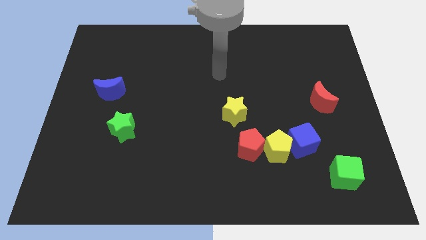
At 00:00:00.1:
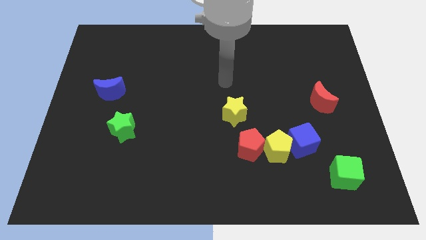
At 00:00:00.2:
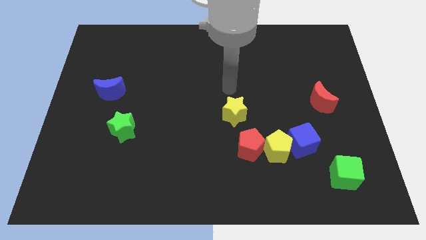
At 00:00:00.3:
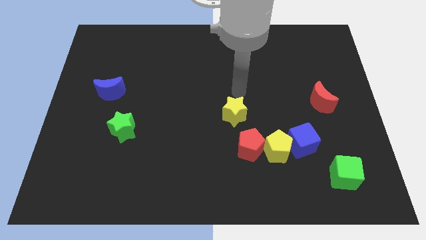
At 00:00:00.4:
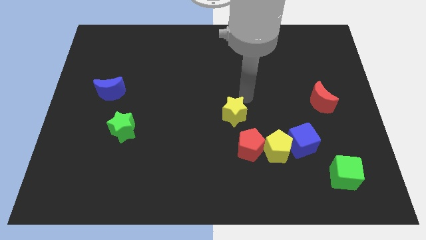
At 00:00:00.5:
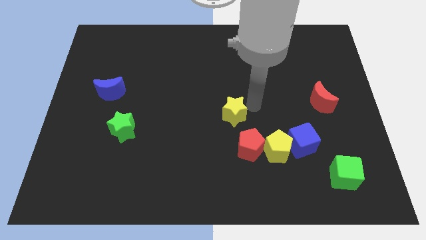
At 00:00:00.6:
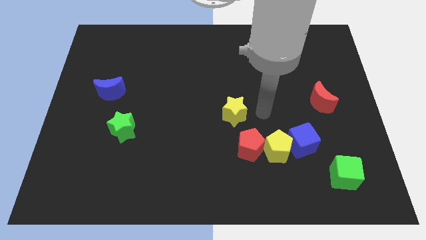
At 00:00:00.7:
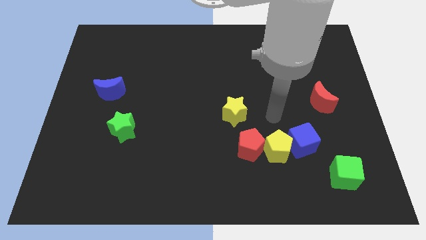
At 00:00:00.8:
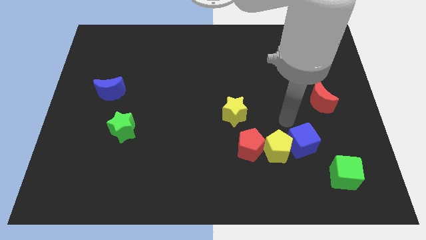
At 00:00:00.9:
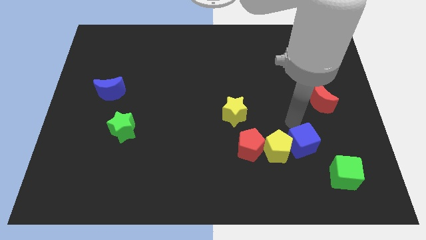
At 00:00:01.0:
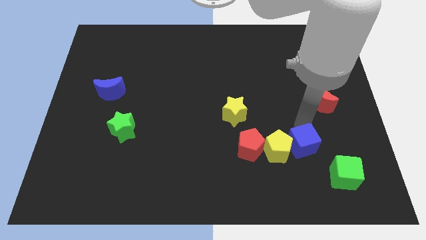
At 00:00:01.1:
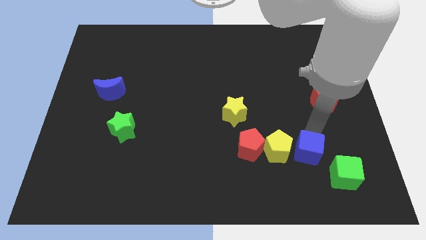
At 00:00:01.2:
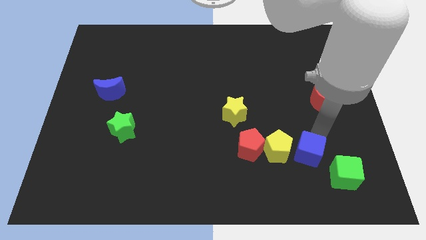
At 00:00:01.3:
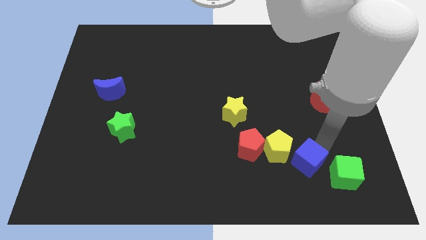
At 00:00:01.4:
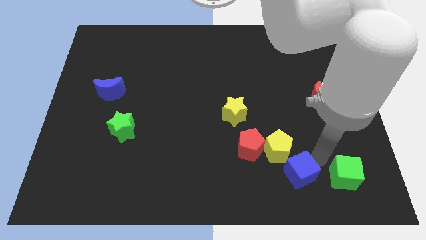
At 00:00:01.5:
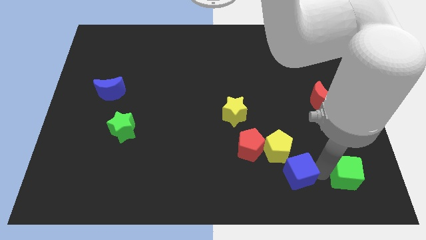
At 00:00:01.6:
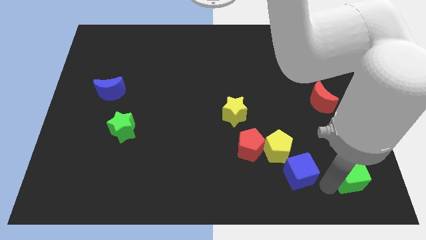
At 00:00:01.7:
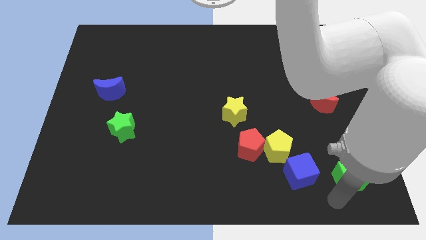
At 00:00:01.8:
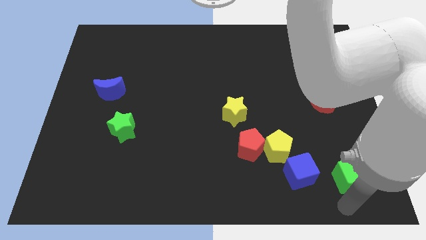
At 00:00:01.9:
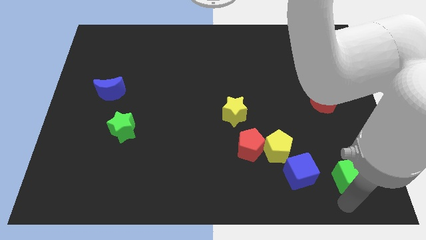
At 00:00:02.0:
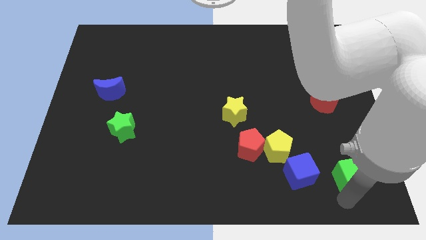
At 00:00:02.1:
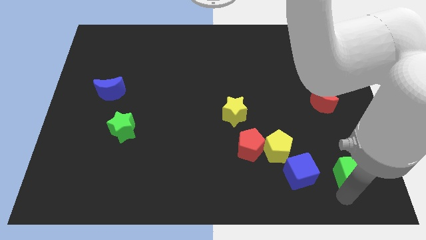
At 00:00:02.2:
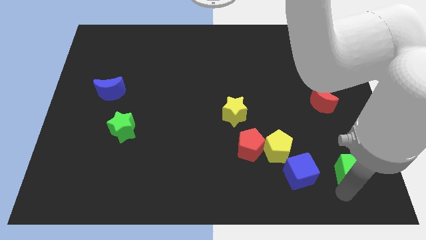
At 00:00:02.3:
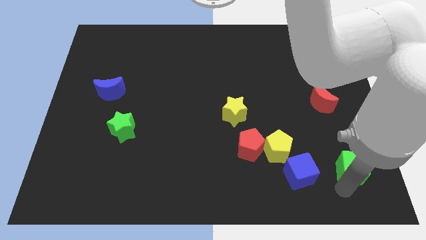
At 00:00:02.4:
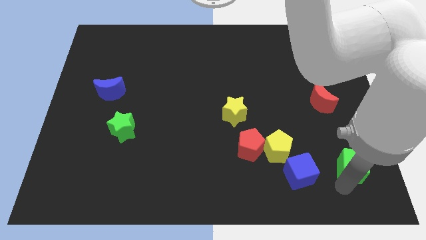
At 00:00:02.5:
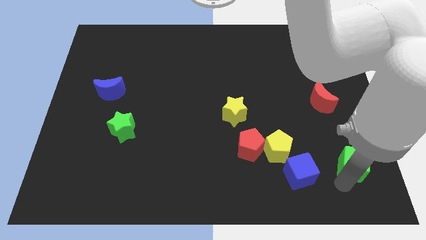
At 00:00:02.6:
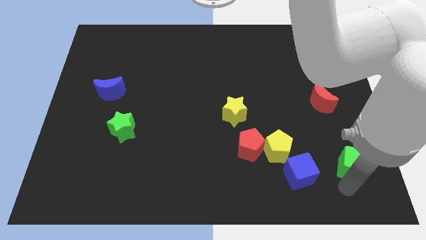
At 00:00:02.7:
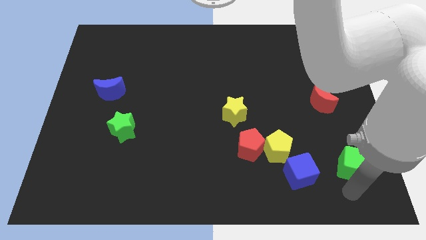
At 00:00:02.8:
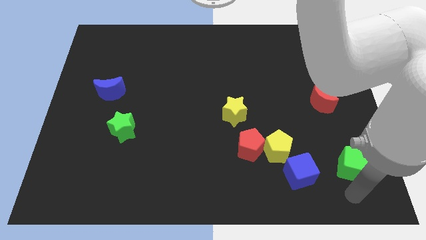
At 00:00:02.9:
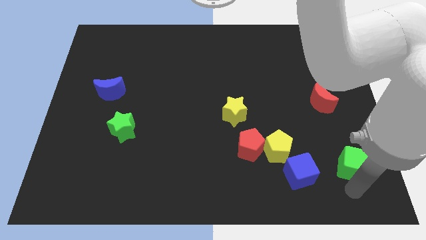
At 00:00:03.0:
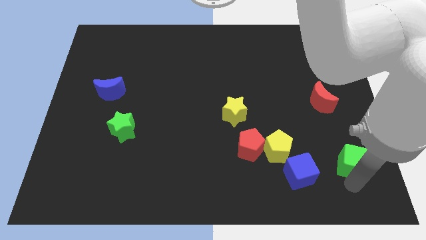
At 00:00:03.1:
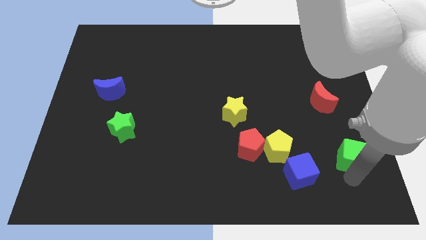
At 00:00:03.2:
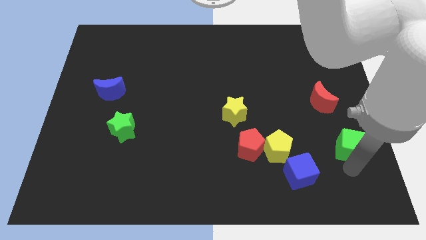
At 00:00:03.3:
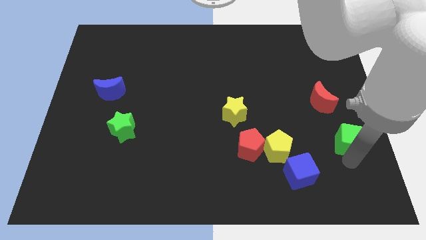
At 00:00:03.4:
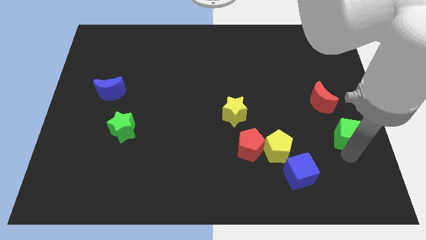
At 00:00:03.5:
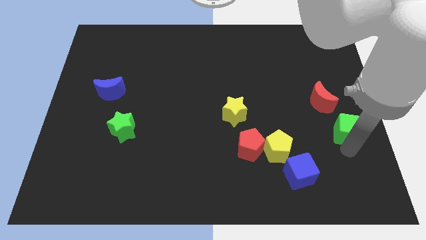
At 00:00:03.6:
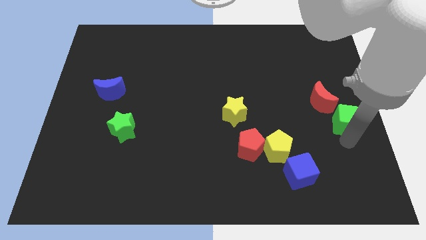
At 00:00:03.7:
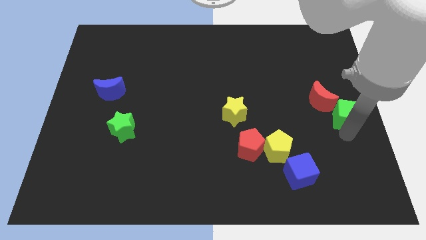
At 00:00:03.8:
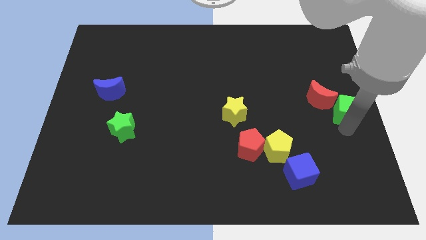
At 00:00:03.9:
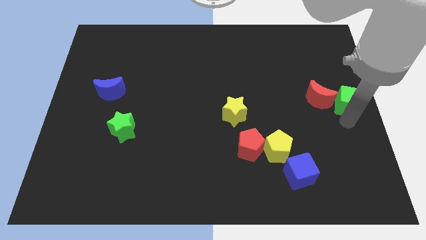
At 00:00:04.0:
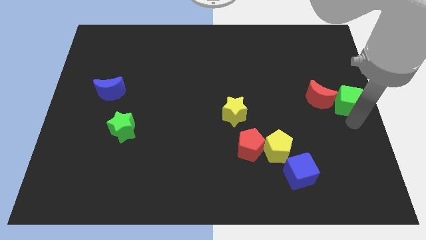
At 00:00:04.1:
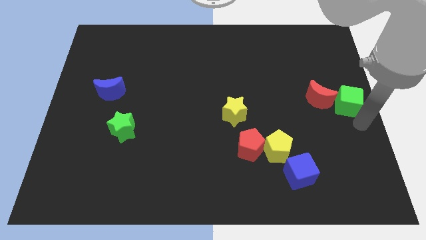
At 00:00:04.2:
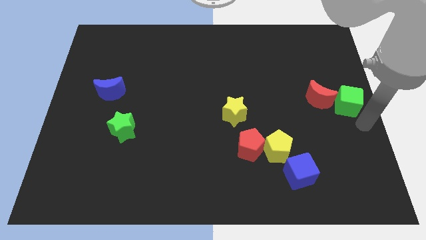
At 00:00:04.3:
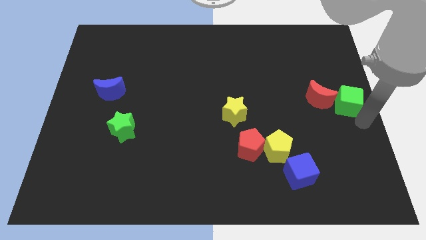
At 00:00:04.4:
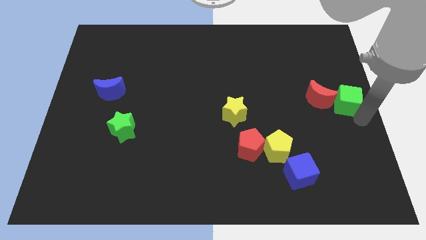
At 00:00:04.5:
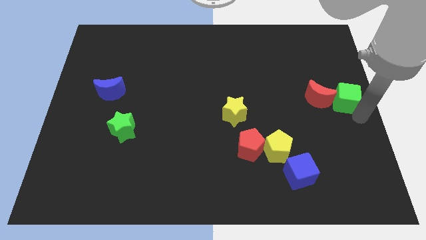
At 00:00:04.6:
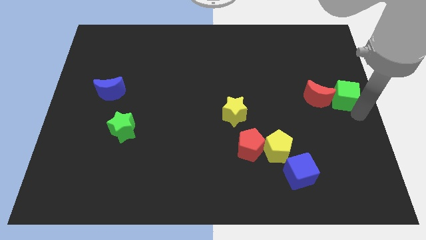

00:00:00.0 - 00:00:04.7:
push the green cube up

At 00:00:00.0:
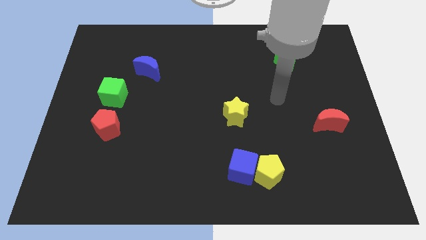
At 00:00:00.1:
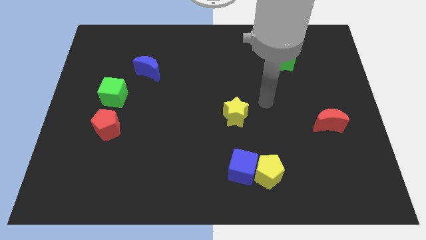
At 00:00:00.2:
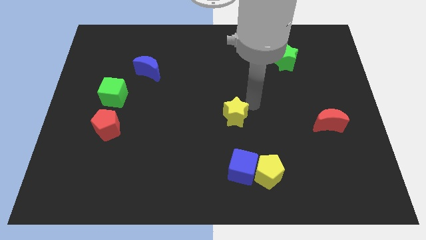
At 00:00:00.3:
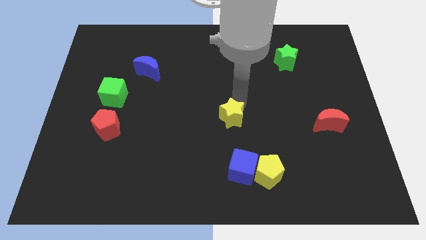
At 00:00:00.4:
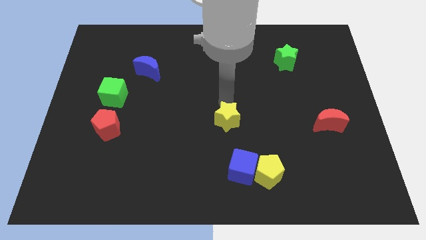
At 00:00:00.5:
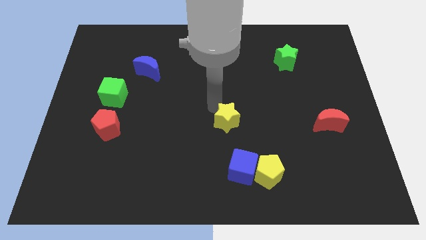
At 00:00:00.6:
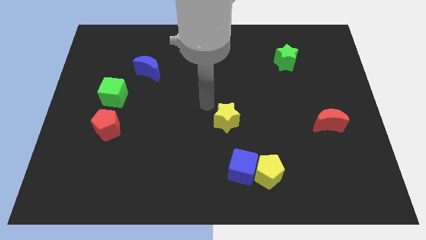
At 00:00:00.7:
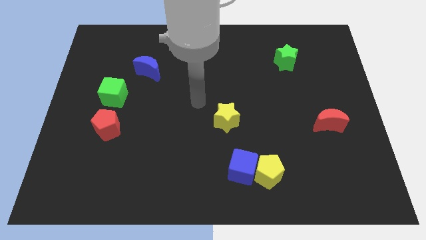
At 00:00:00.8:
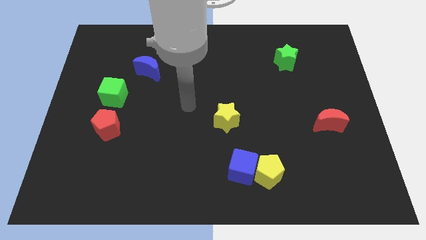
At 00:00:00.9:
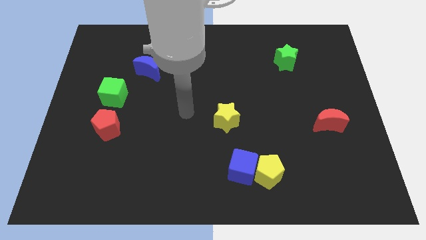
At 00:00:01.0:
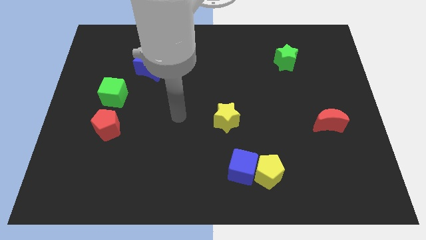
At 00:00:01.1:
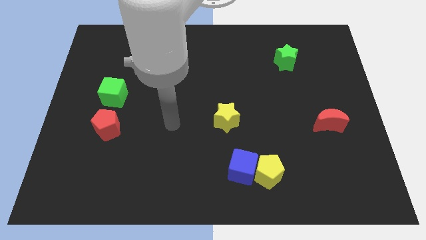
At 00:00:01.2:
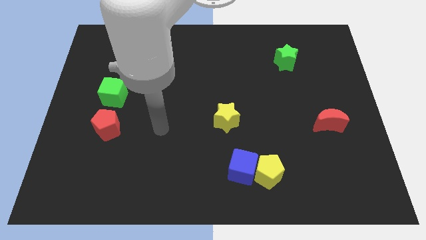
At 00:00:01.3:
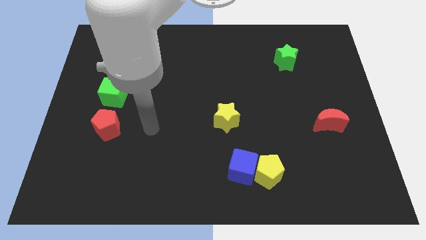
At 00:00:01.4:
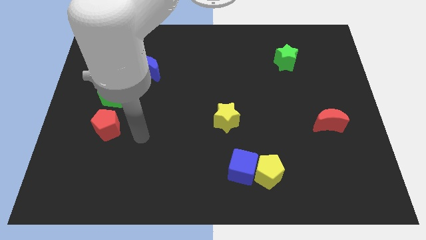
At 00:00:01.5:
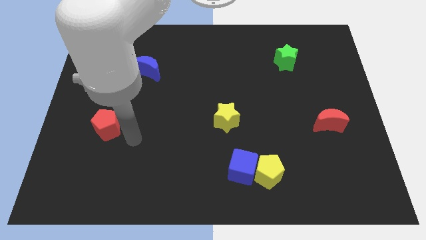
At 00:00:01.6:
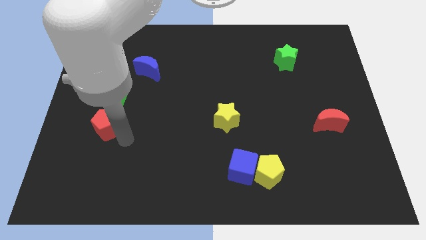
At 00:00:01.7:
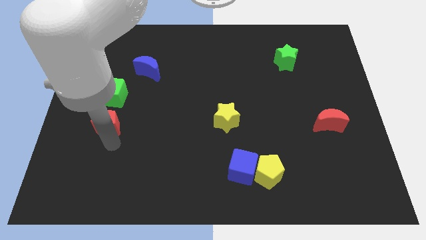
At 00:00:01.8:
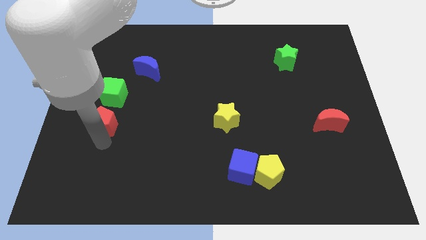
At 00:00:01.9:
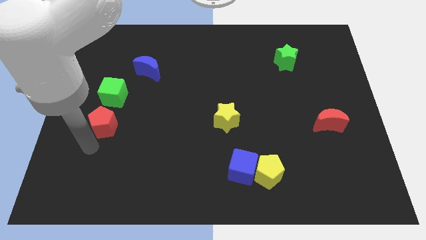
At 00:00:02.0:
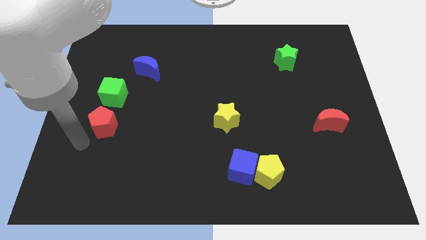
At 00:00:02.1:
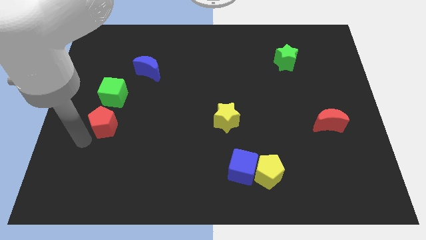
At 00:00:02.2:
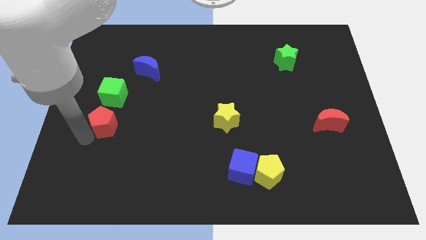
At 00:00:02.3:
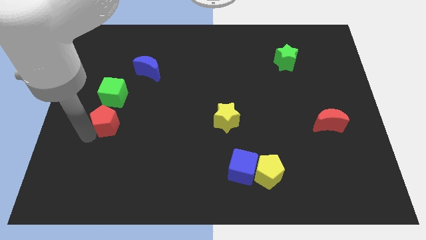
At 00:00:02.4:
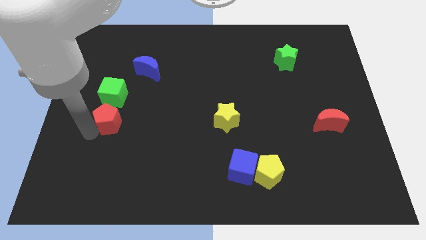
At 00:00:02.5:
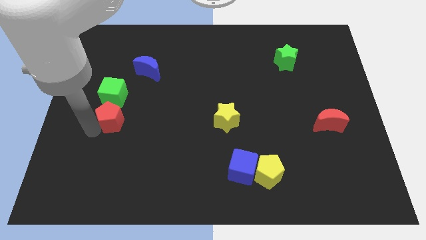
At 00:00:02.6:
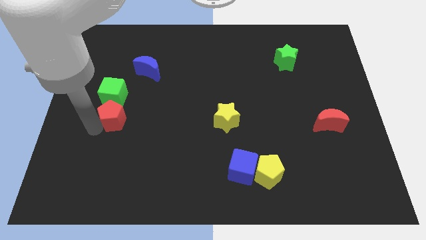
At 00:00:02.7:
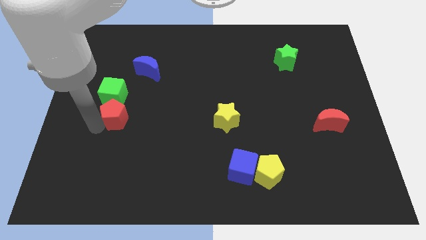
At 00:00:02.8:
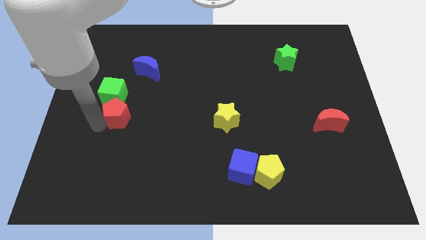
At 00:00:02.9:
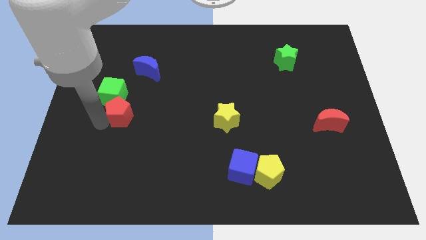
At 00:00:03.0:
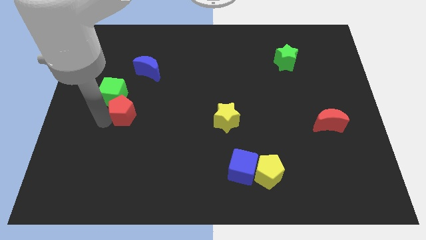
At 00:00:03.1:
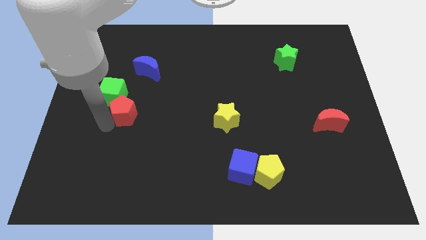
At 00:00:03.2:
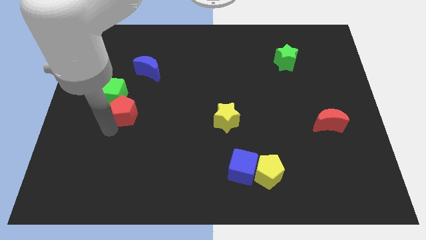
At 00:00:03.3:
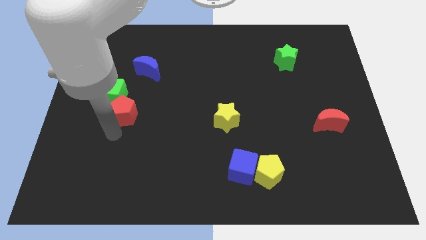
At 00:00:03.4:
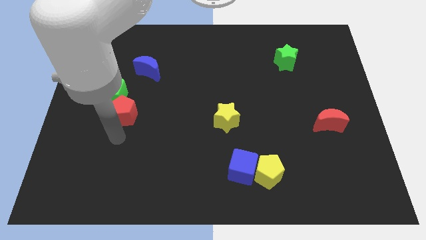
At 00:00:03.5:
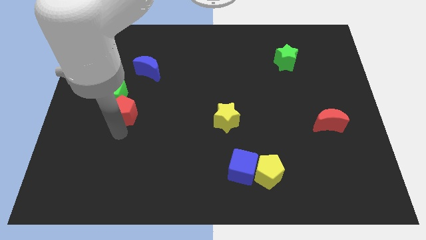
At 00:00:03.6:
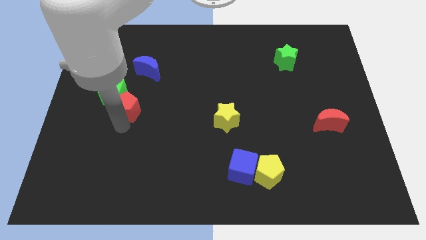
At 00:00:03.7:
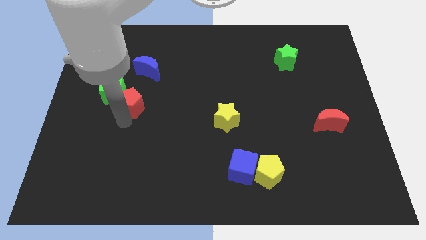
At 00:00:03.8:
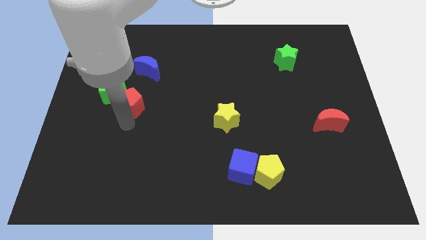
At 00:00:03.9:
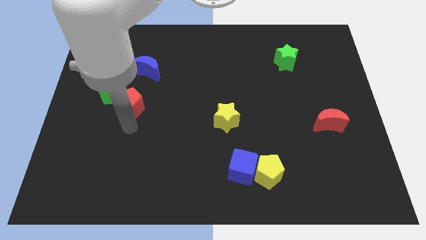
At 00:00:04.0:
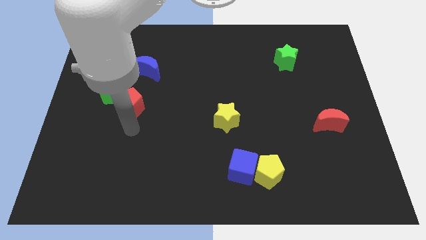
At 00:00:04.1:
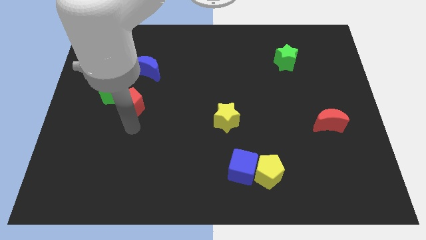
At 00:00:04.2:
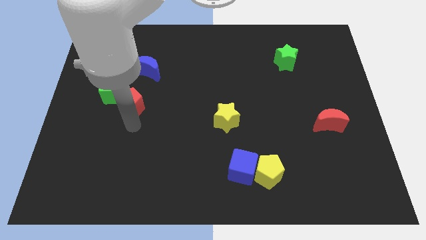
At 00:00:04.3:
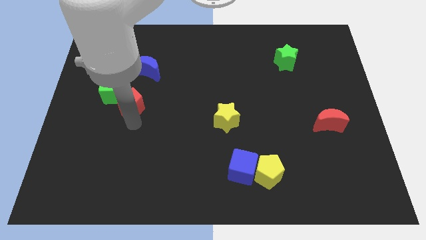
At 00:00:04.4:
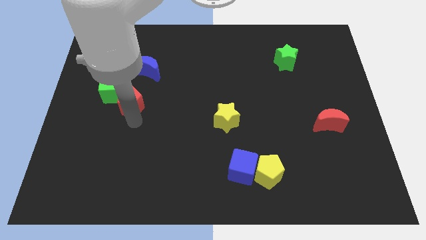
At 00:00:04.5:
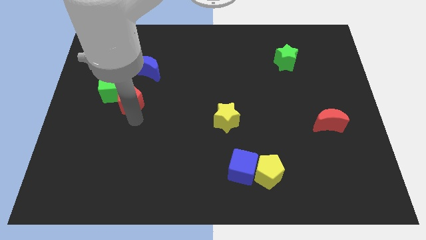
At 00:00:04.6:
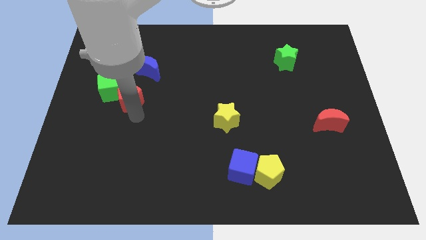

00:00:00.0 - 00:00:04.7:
move the red pentagon upwards slightly
